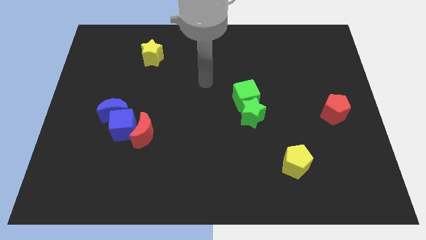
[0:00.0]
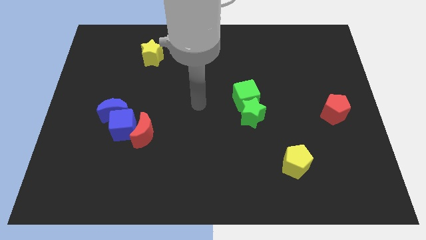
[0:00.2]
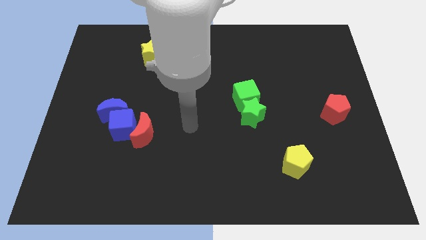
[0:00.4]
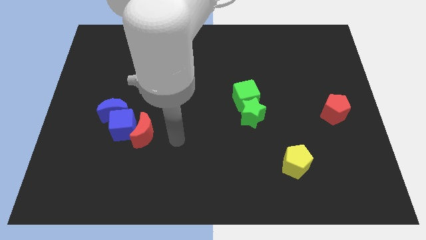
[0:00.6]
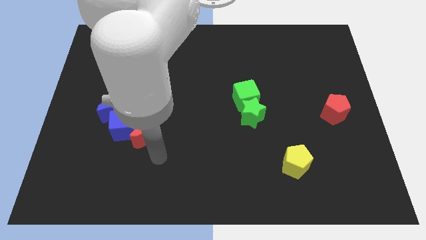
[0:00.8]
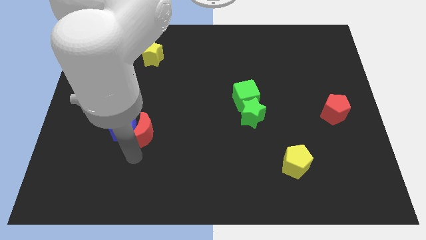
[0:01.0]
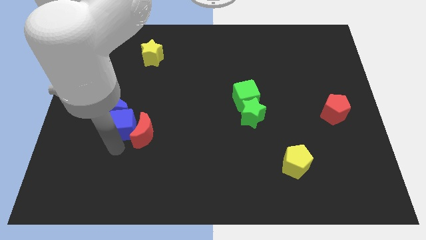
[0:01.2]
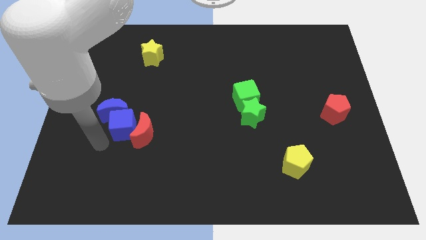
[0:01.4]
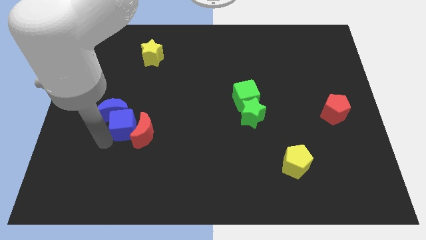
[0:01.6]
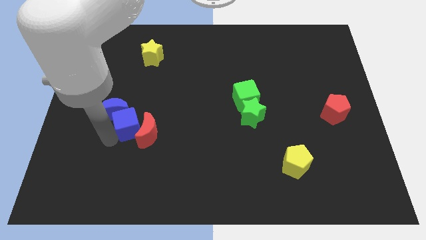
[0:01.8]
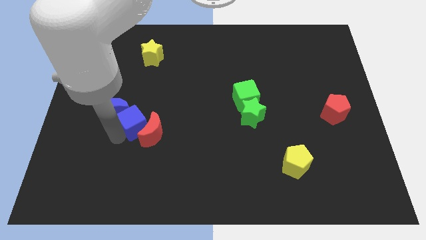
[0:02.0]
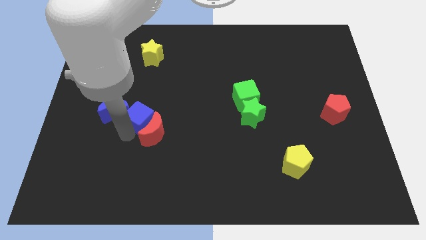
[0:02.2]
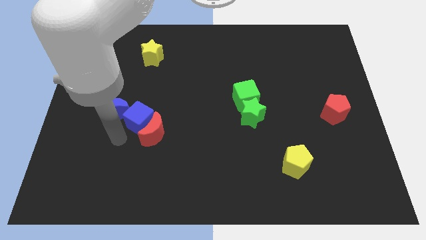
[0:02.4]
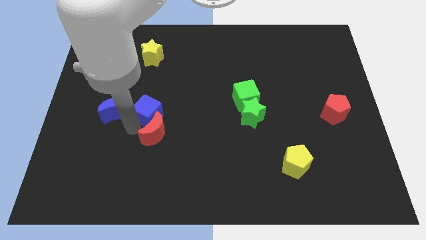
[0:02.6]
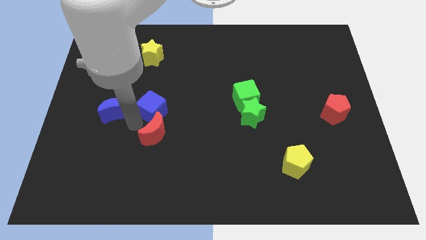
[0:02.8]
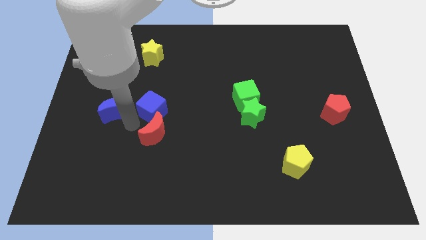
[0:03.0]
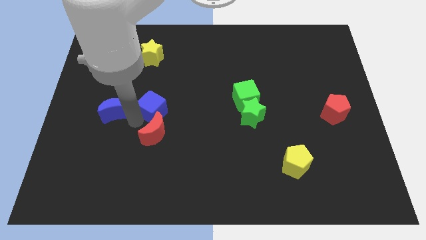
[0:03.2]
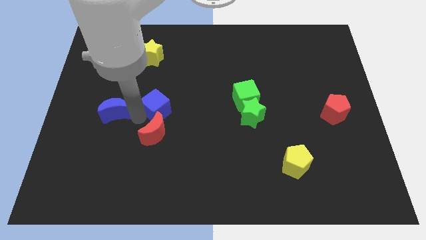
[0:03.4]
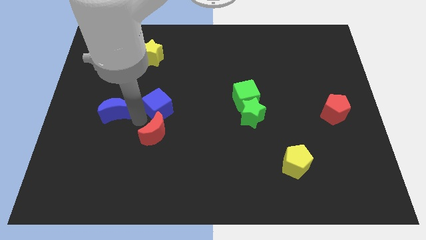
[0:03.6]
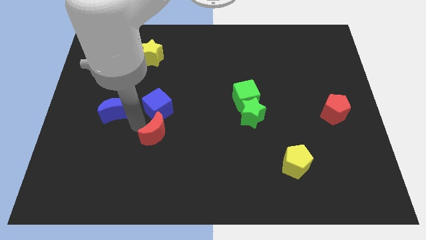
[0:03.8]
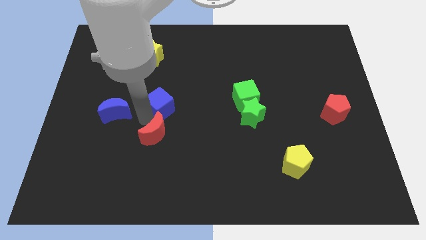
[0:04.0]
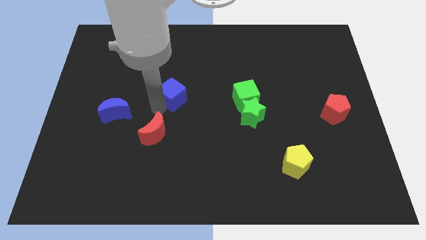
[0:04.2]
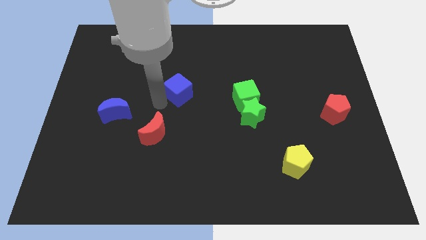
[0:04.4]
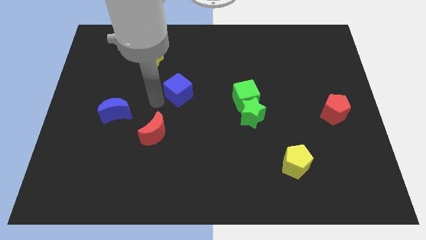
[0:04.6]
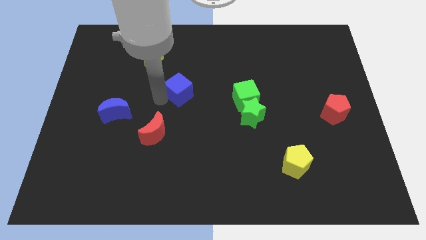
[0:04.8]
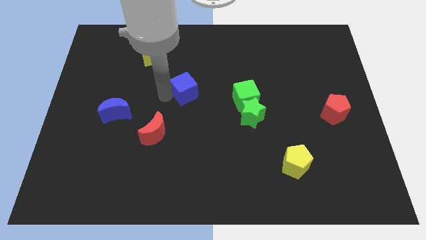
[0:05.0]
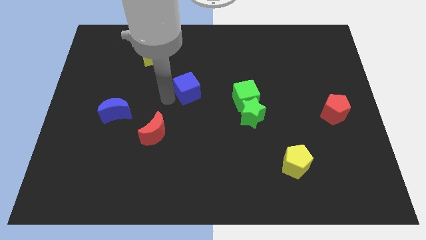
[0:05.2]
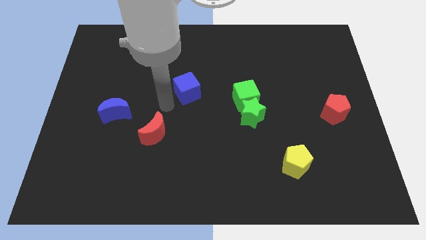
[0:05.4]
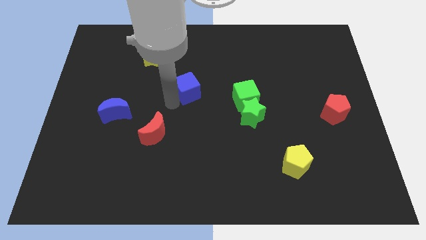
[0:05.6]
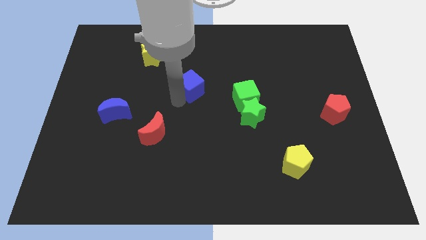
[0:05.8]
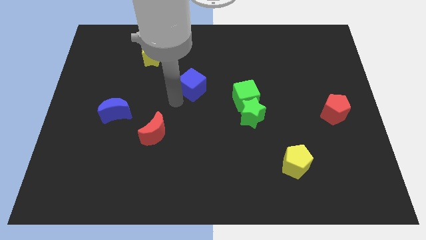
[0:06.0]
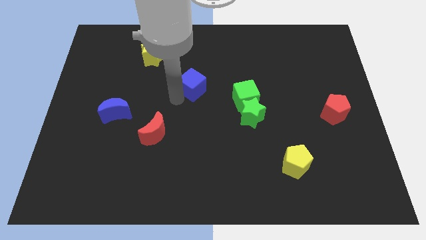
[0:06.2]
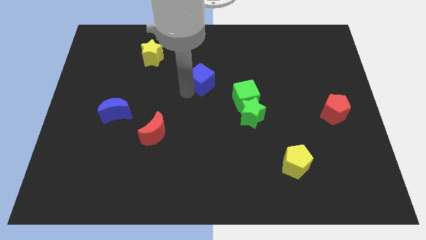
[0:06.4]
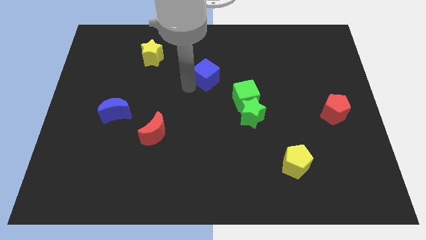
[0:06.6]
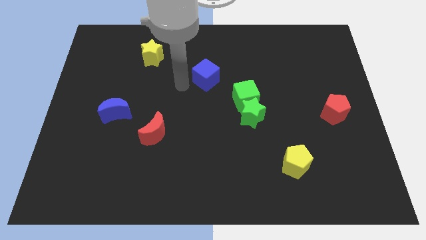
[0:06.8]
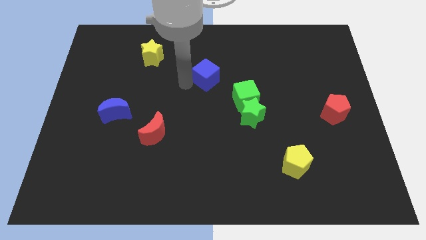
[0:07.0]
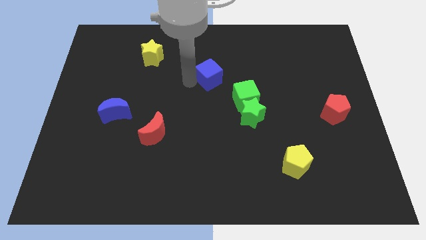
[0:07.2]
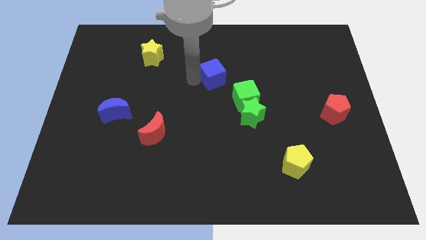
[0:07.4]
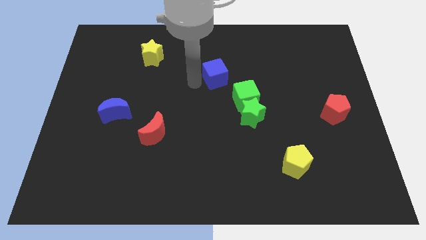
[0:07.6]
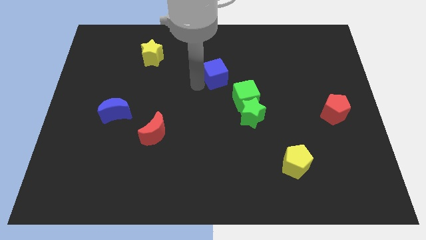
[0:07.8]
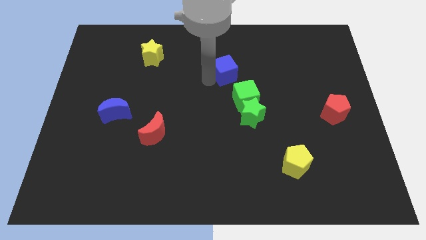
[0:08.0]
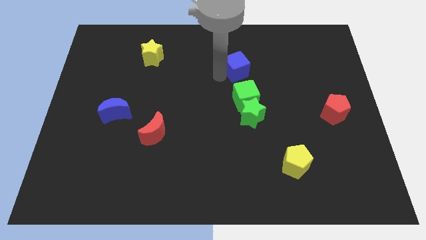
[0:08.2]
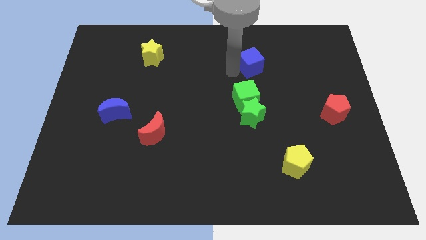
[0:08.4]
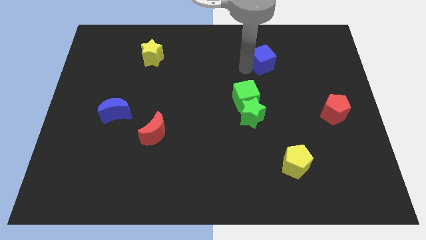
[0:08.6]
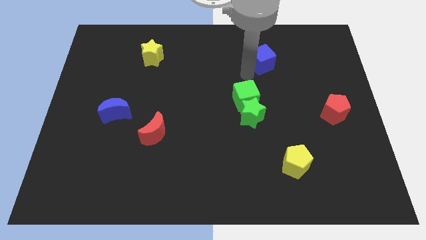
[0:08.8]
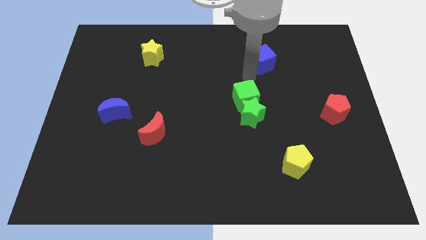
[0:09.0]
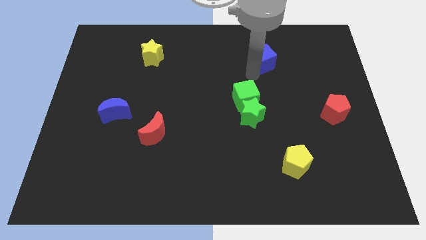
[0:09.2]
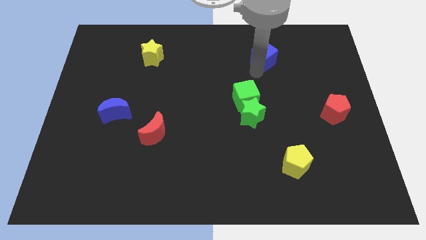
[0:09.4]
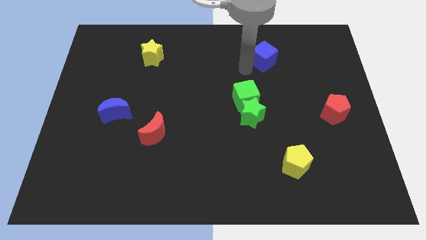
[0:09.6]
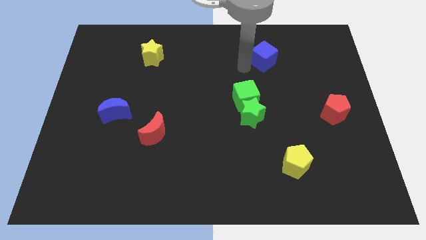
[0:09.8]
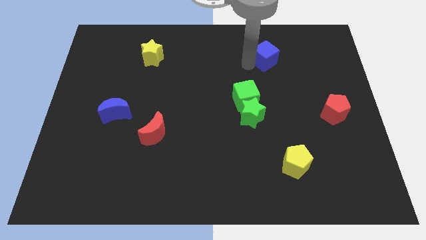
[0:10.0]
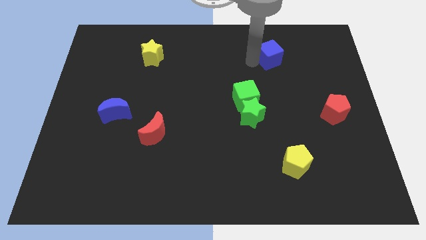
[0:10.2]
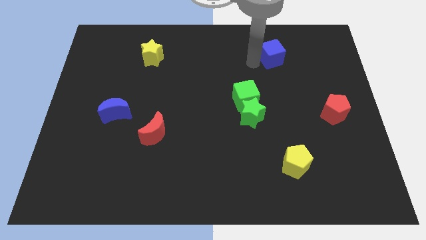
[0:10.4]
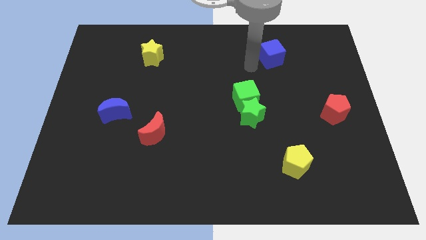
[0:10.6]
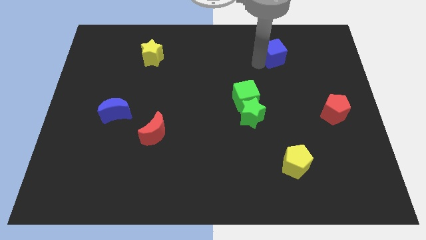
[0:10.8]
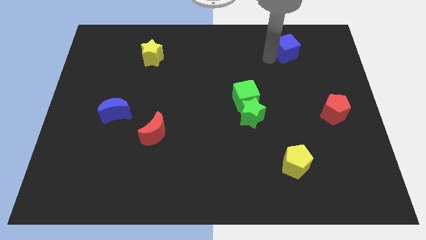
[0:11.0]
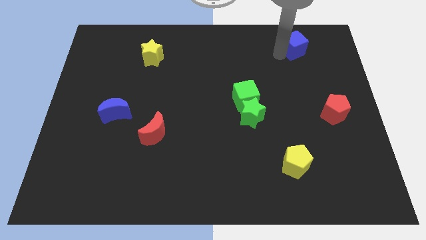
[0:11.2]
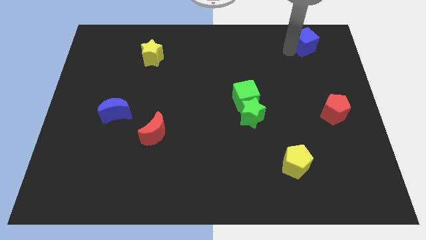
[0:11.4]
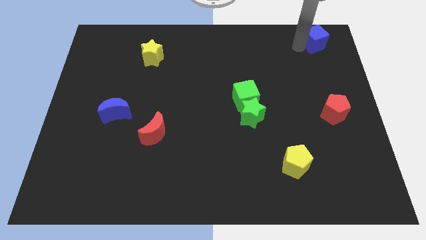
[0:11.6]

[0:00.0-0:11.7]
slide the blue cube to the upper right corner
